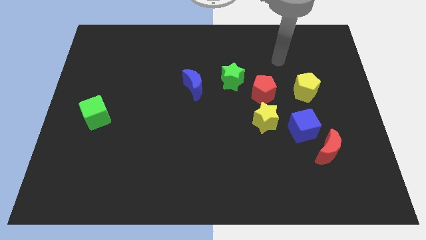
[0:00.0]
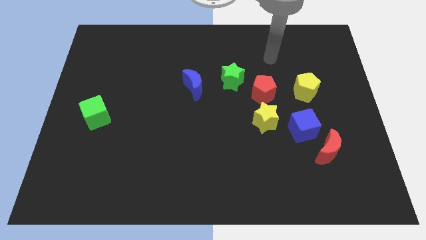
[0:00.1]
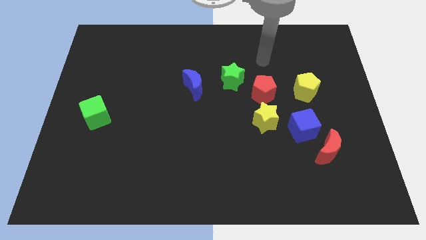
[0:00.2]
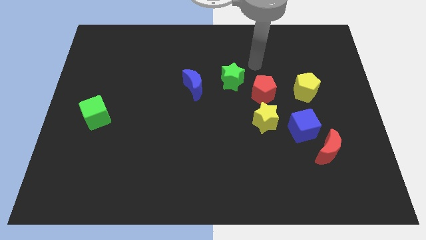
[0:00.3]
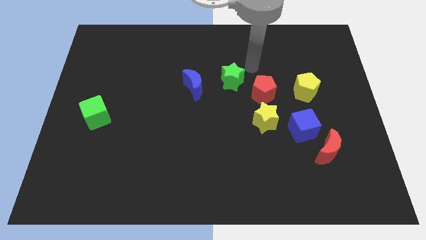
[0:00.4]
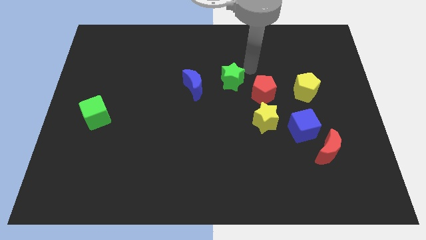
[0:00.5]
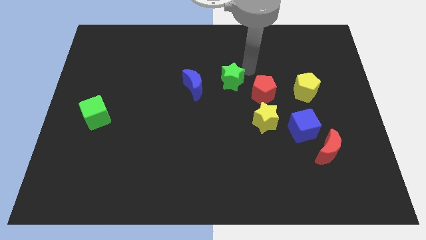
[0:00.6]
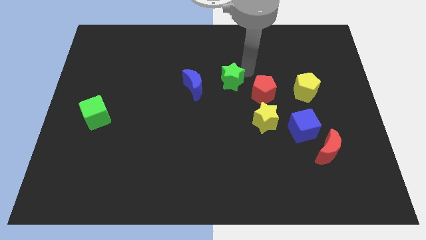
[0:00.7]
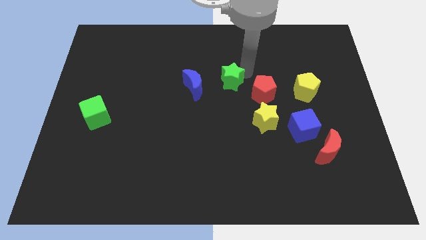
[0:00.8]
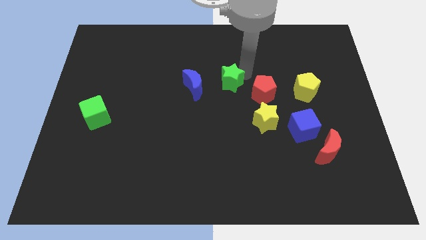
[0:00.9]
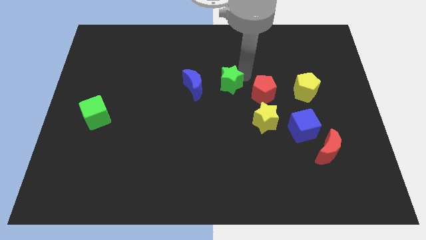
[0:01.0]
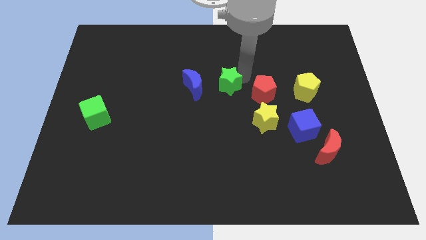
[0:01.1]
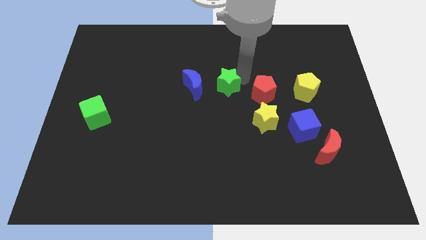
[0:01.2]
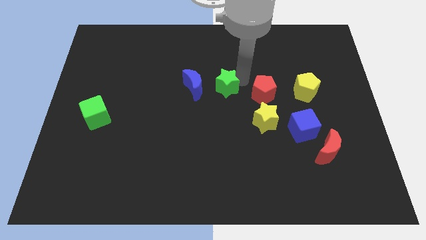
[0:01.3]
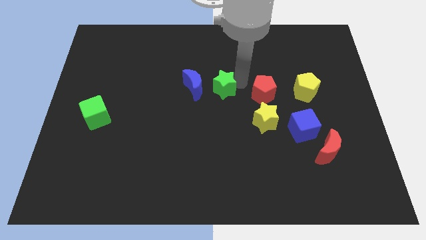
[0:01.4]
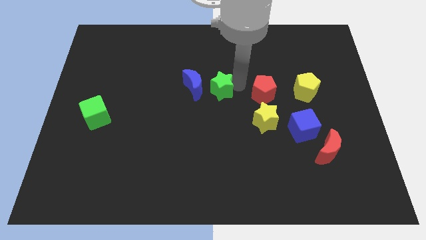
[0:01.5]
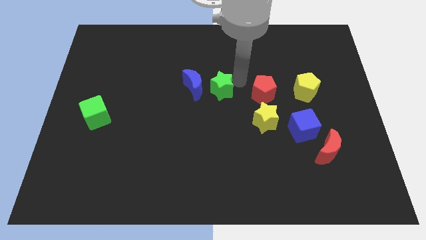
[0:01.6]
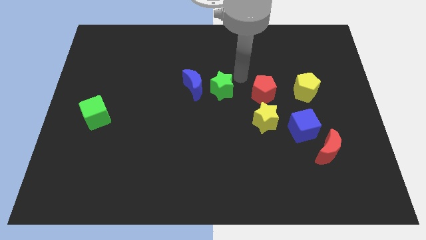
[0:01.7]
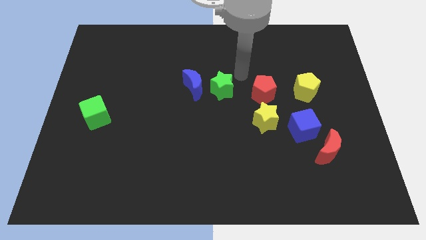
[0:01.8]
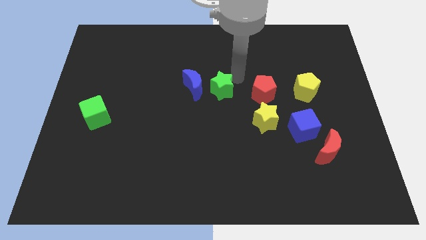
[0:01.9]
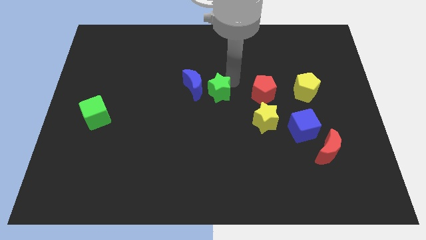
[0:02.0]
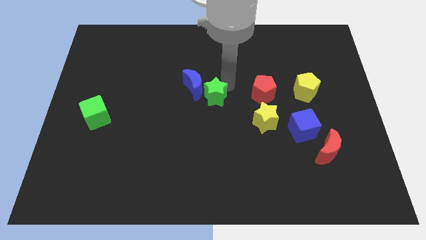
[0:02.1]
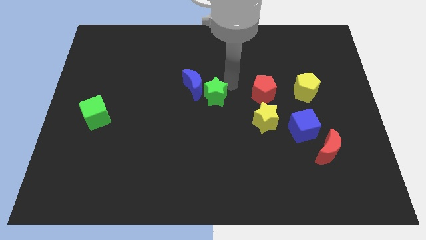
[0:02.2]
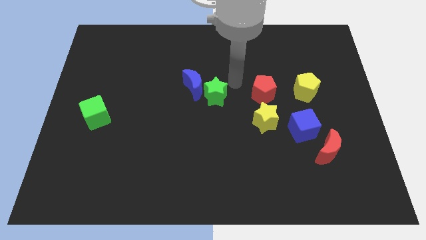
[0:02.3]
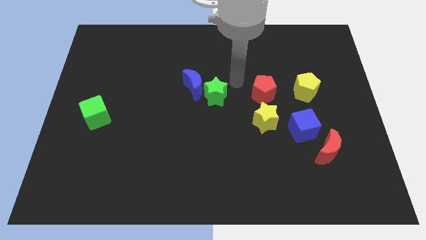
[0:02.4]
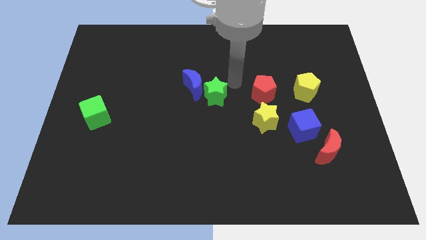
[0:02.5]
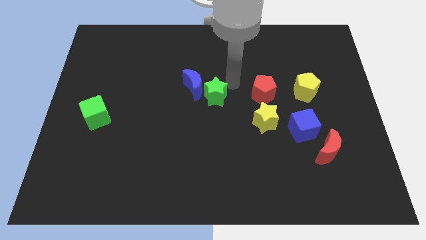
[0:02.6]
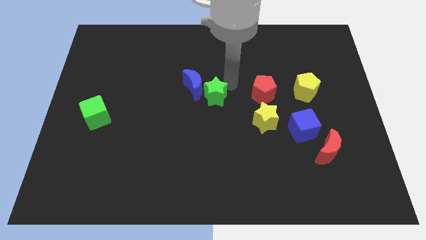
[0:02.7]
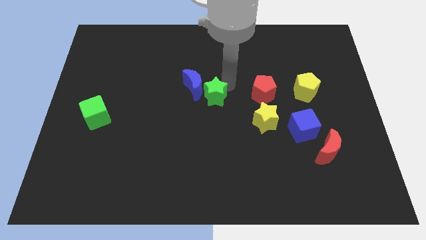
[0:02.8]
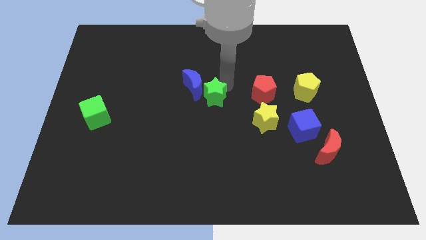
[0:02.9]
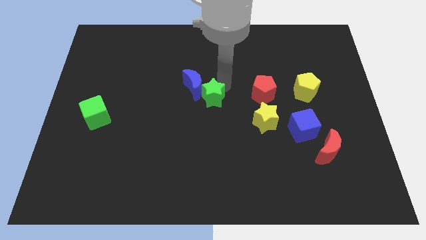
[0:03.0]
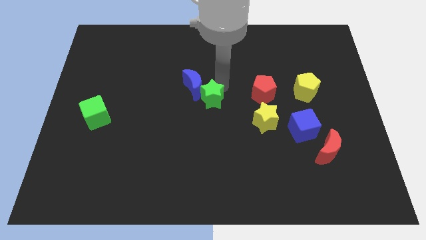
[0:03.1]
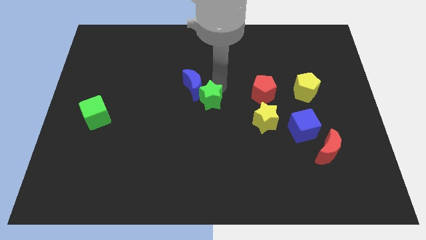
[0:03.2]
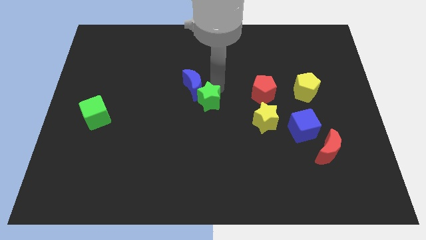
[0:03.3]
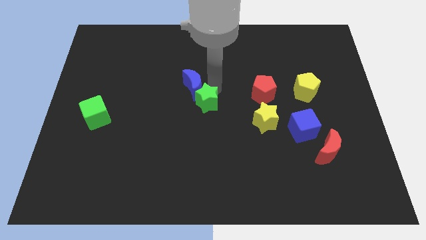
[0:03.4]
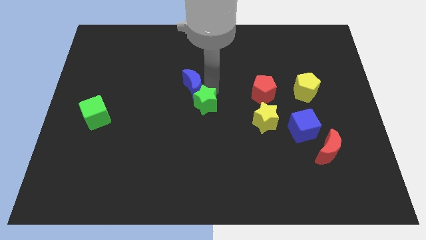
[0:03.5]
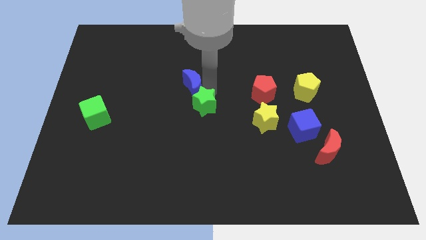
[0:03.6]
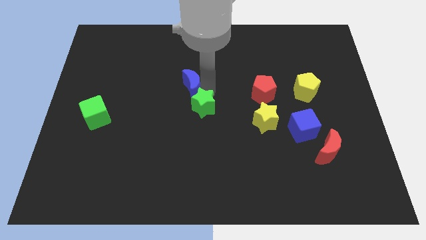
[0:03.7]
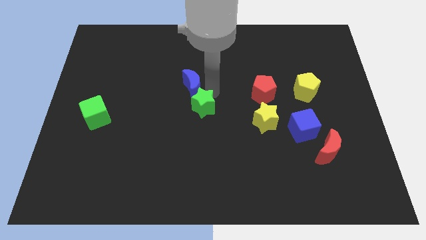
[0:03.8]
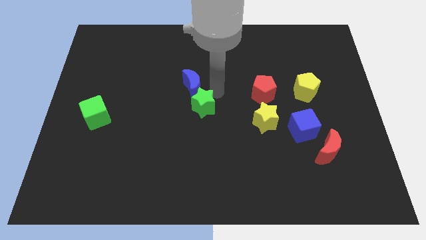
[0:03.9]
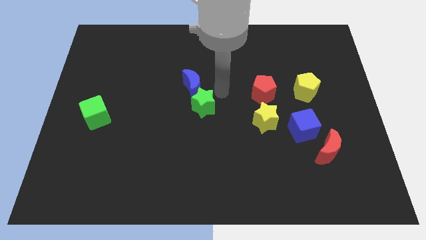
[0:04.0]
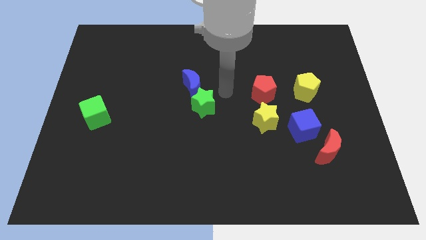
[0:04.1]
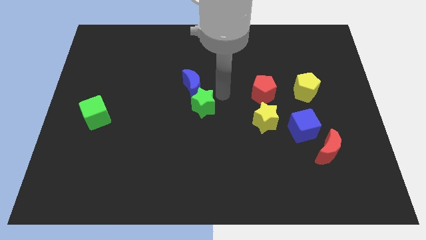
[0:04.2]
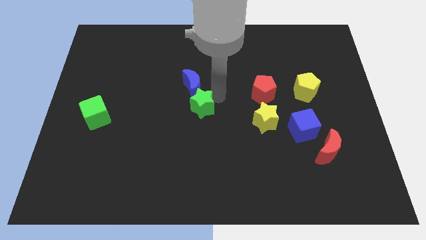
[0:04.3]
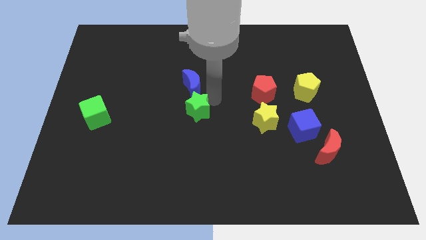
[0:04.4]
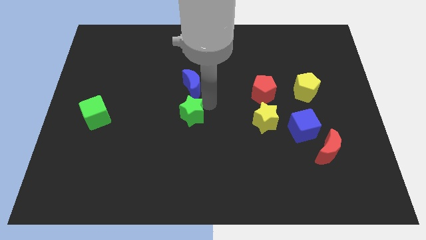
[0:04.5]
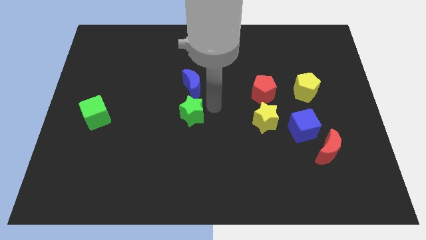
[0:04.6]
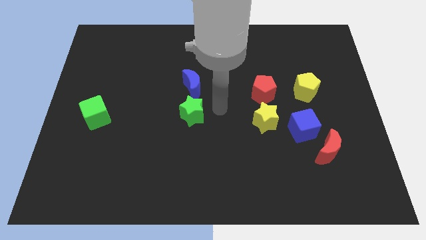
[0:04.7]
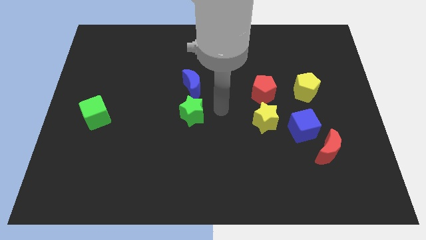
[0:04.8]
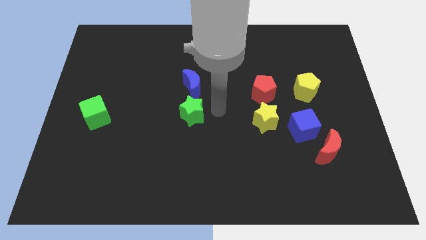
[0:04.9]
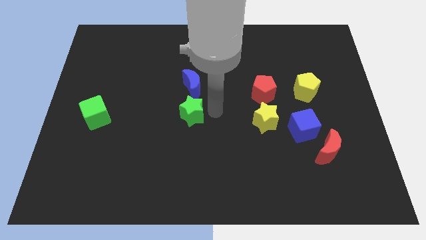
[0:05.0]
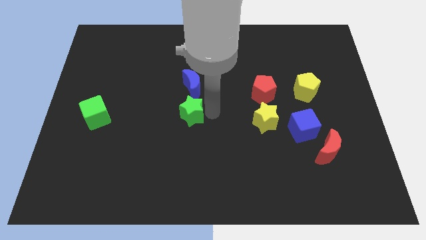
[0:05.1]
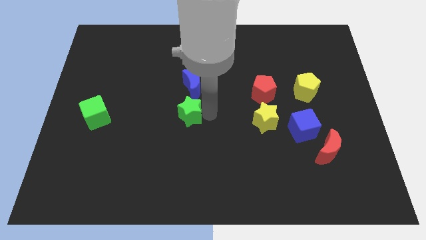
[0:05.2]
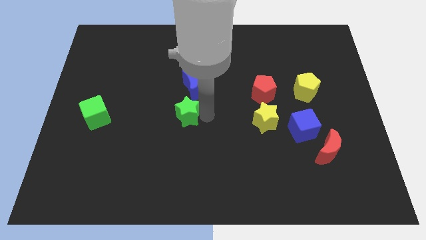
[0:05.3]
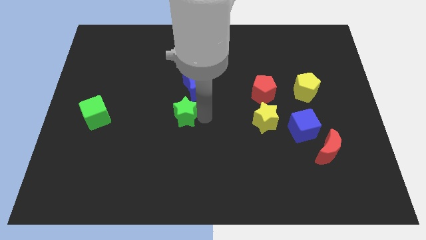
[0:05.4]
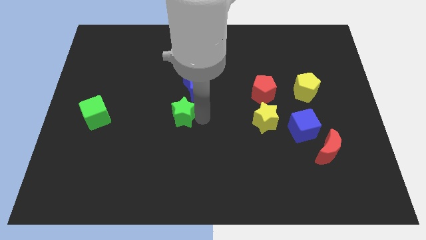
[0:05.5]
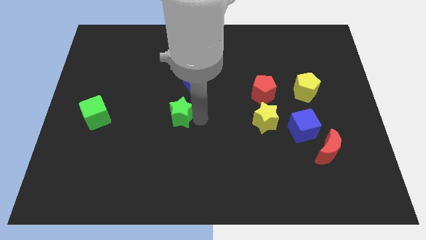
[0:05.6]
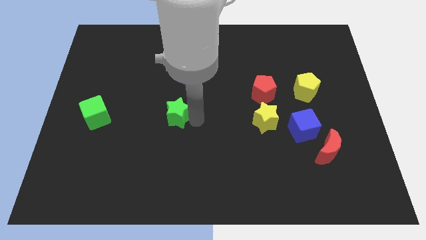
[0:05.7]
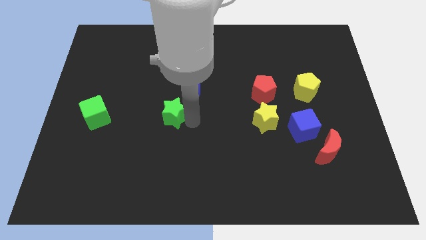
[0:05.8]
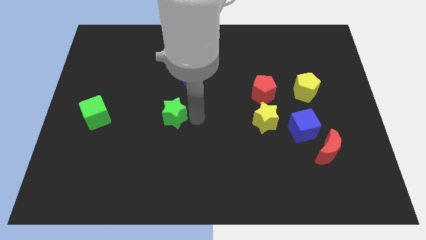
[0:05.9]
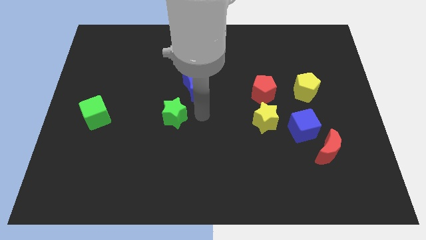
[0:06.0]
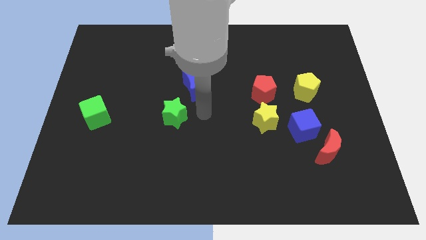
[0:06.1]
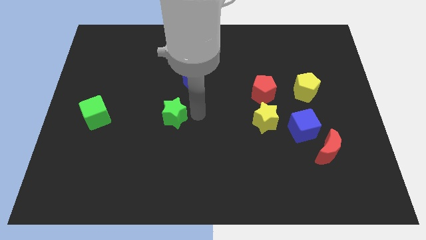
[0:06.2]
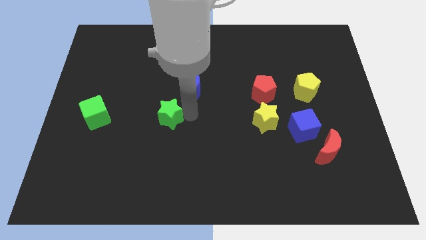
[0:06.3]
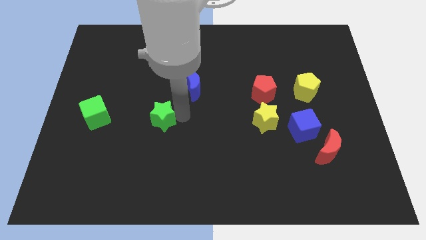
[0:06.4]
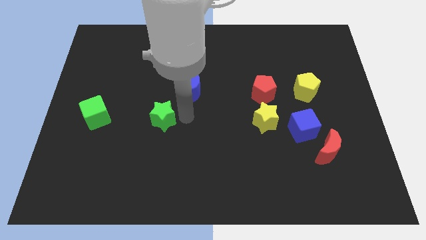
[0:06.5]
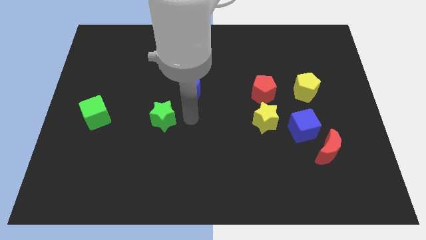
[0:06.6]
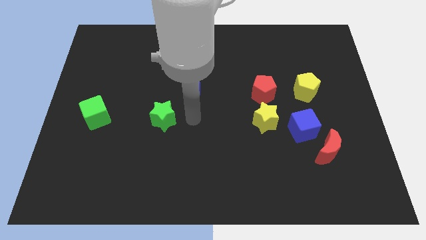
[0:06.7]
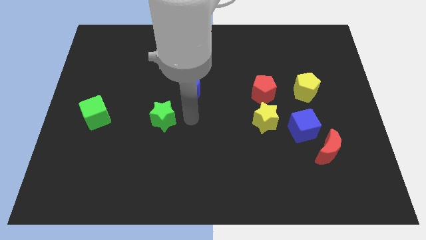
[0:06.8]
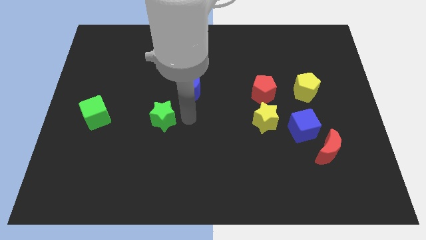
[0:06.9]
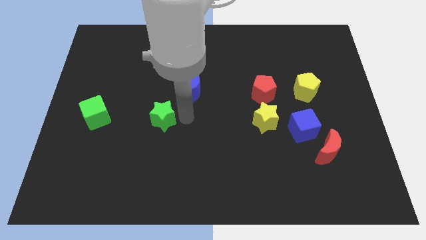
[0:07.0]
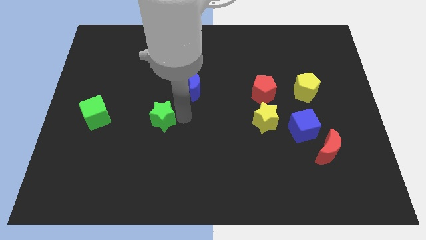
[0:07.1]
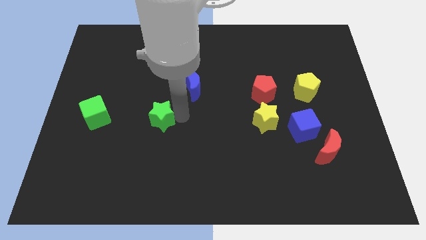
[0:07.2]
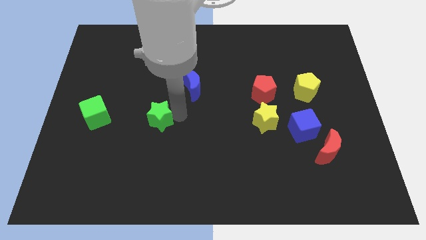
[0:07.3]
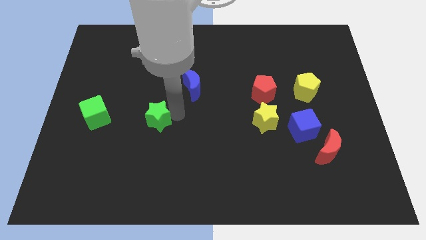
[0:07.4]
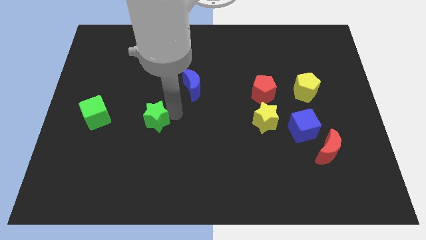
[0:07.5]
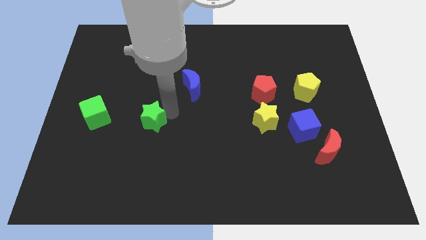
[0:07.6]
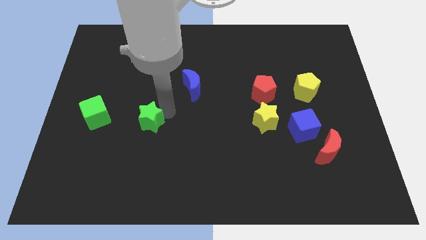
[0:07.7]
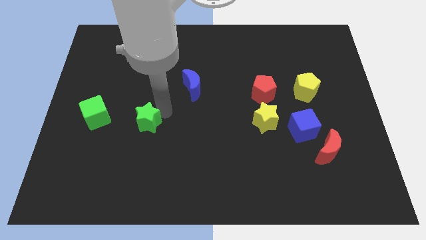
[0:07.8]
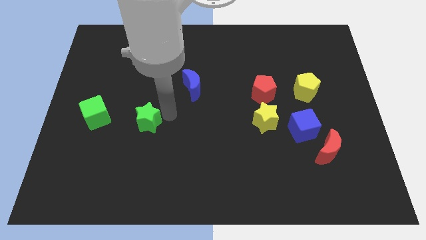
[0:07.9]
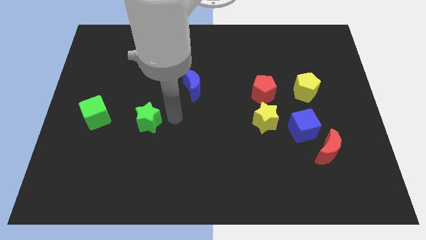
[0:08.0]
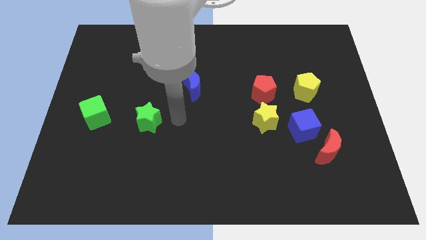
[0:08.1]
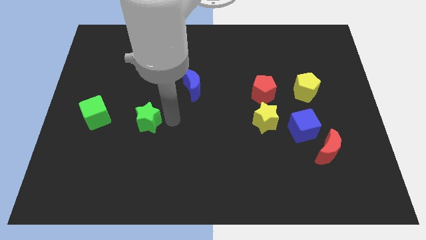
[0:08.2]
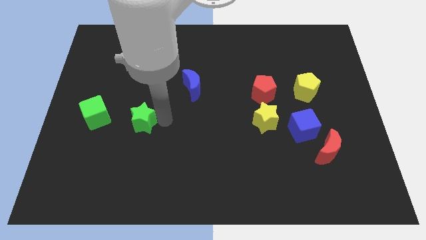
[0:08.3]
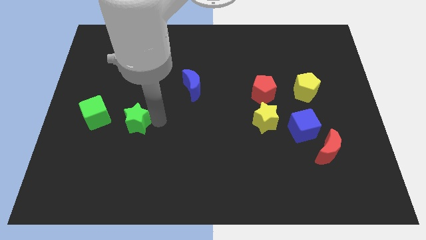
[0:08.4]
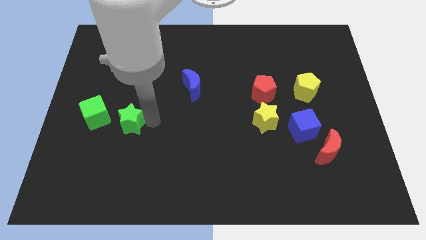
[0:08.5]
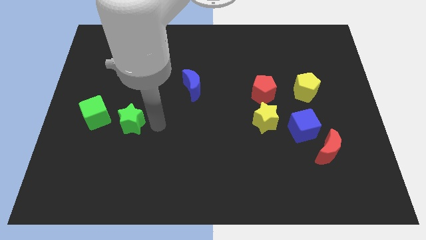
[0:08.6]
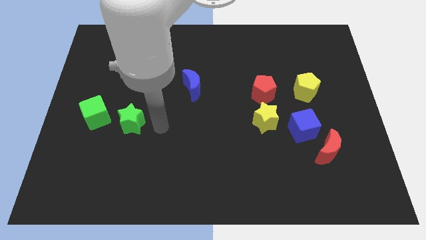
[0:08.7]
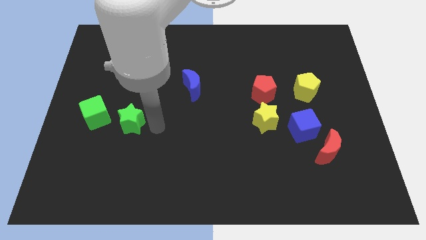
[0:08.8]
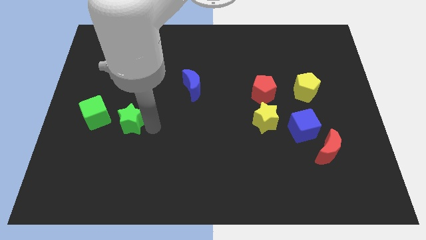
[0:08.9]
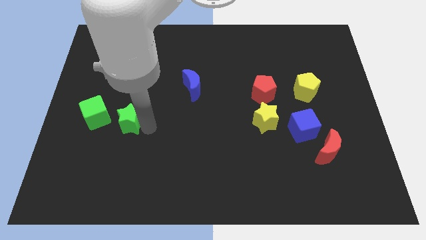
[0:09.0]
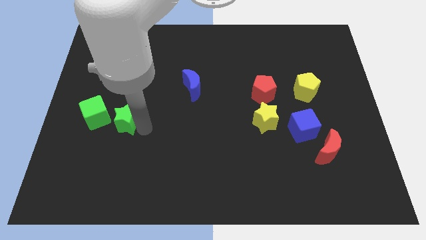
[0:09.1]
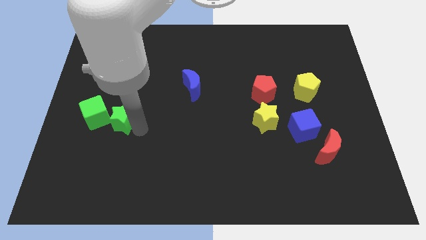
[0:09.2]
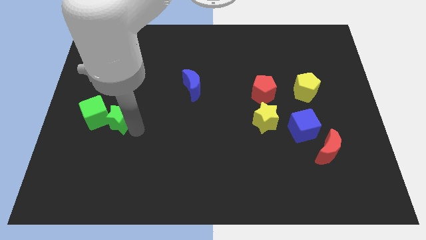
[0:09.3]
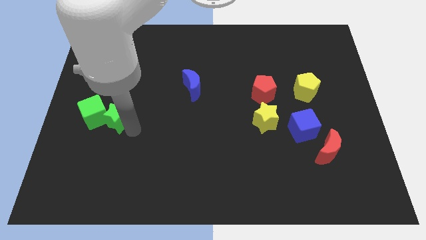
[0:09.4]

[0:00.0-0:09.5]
slide the green star towards the green cube
